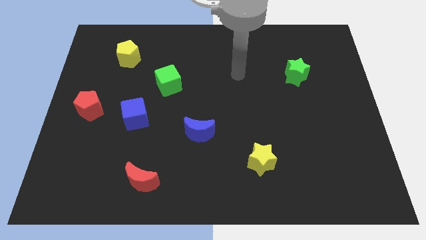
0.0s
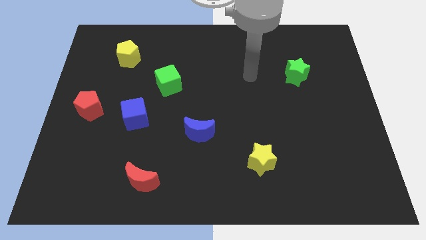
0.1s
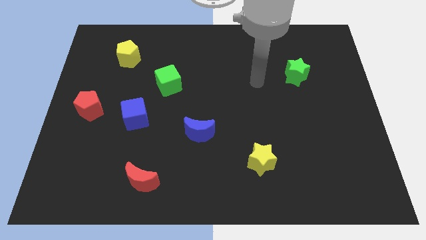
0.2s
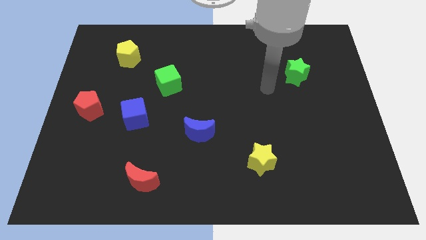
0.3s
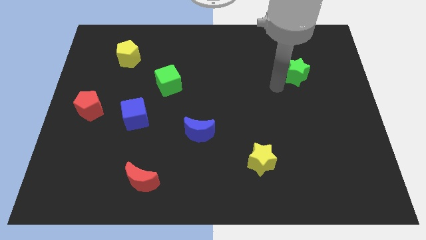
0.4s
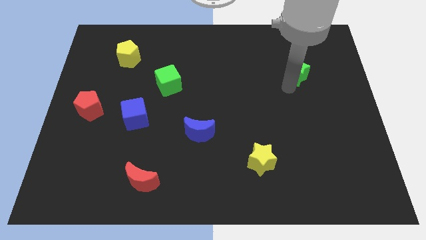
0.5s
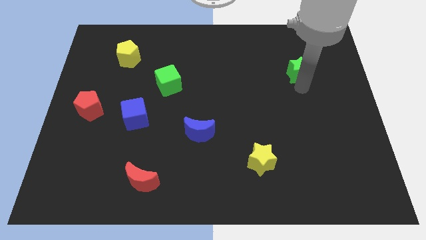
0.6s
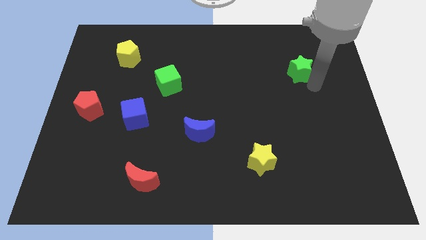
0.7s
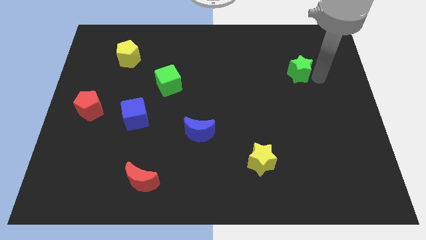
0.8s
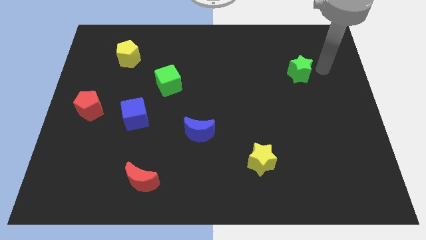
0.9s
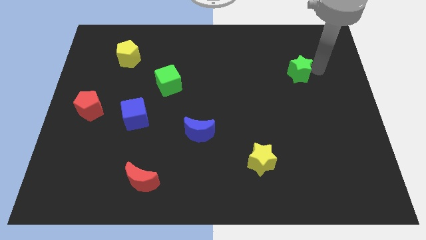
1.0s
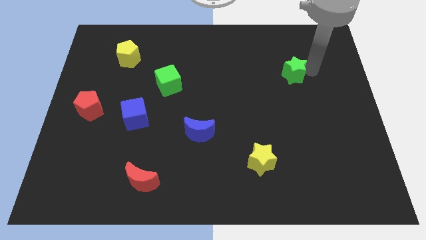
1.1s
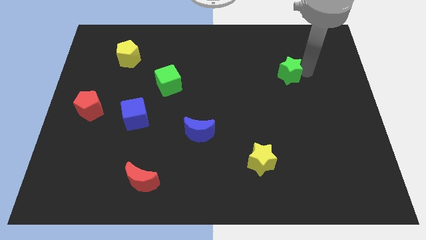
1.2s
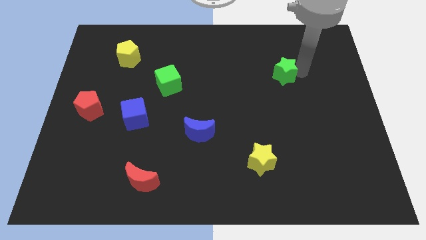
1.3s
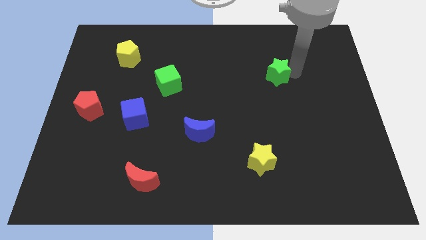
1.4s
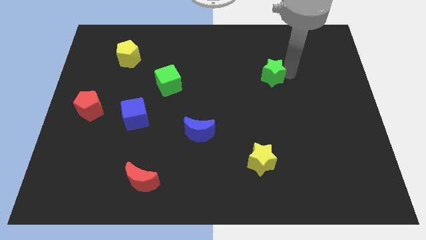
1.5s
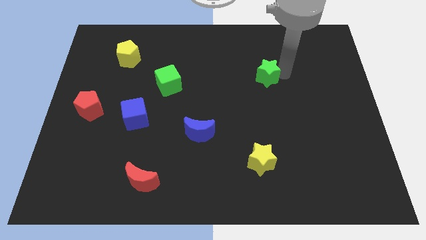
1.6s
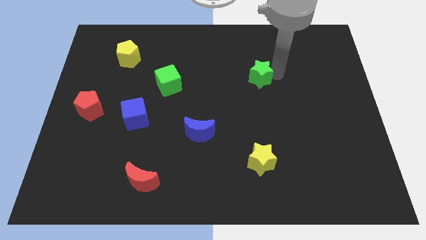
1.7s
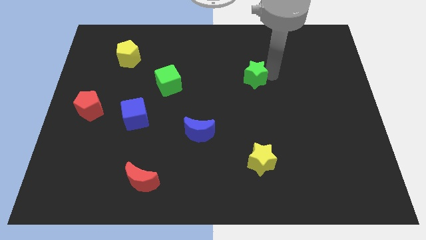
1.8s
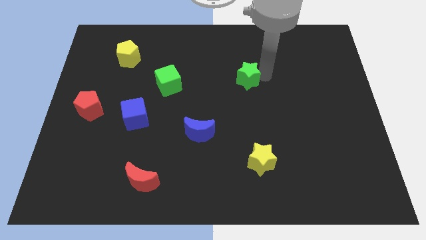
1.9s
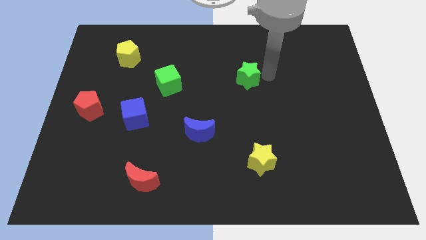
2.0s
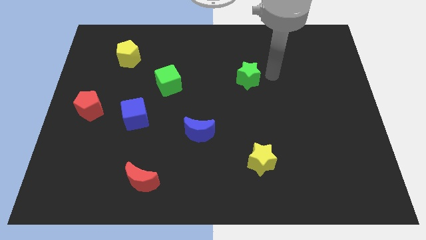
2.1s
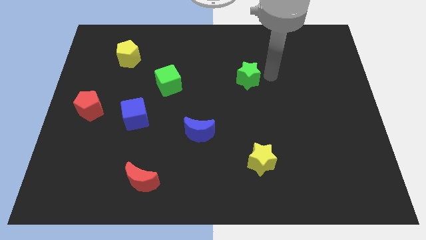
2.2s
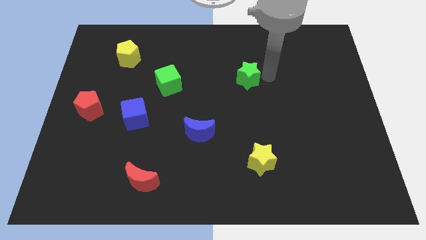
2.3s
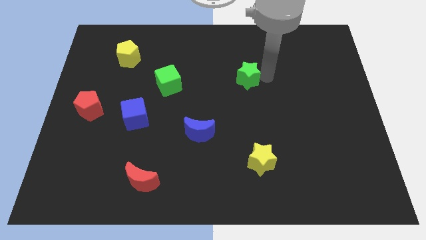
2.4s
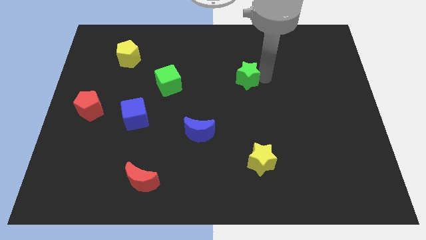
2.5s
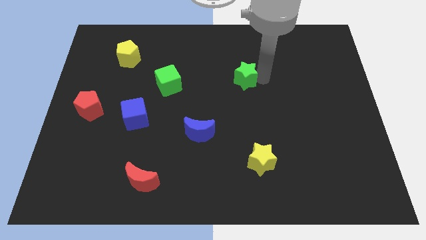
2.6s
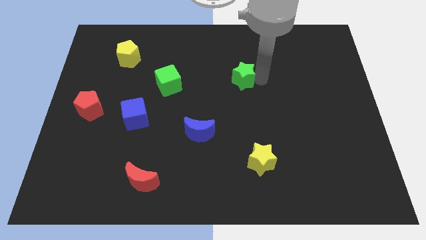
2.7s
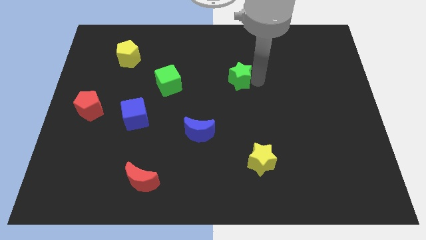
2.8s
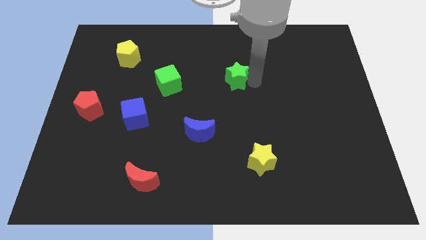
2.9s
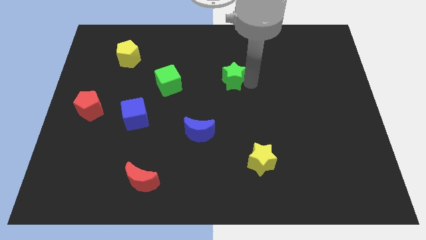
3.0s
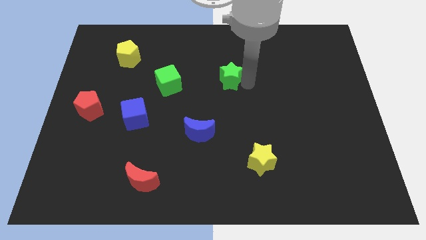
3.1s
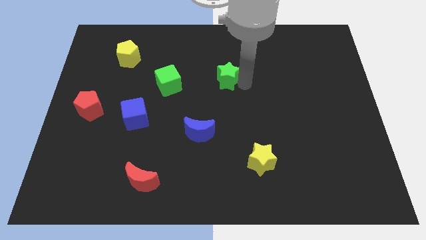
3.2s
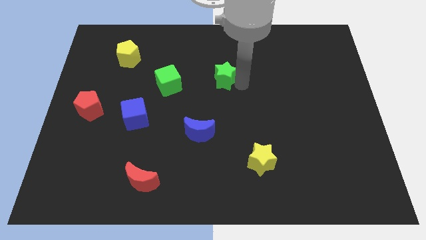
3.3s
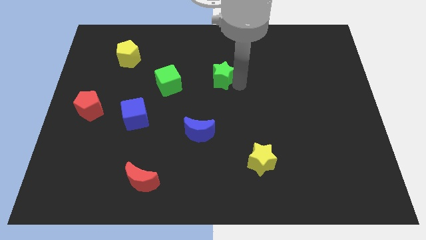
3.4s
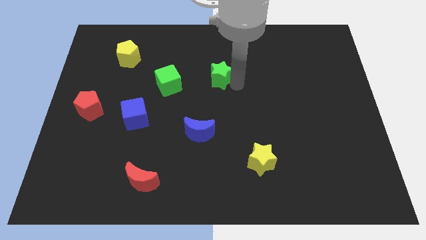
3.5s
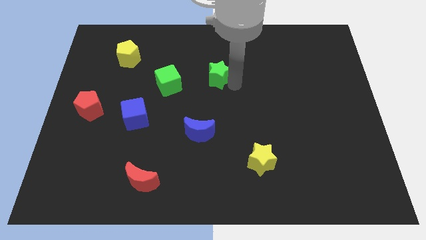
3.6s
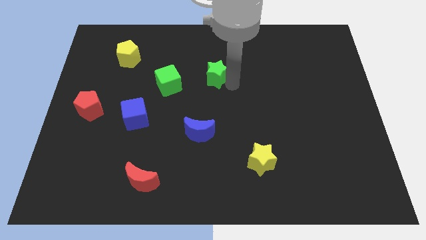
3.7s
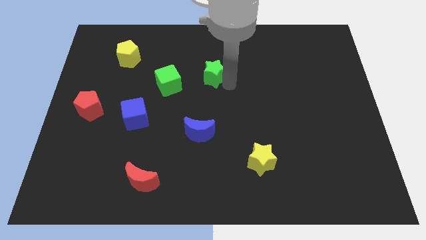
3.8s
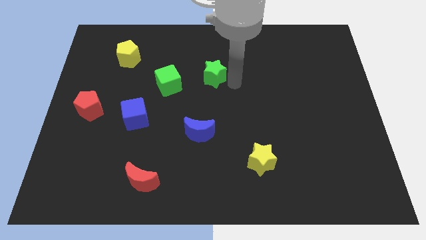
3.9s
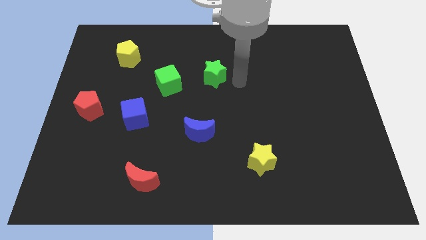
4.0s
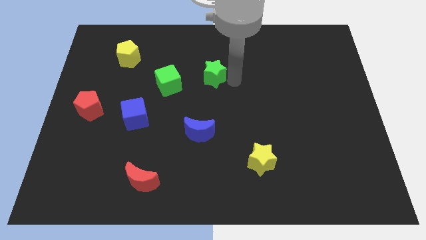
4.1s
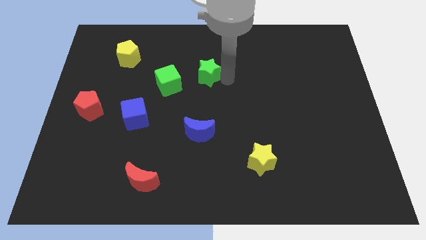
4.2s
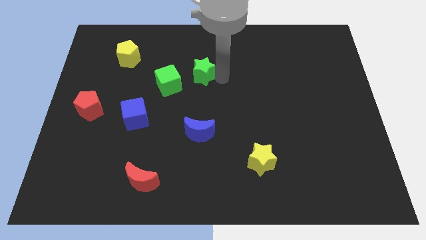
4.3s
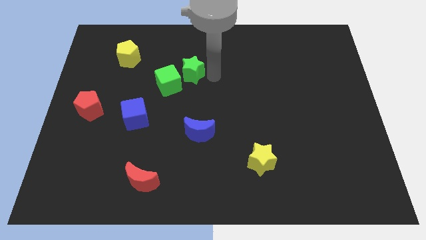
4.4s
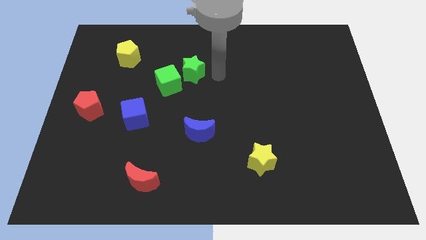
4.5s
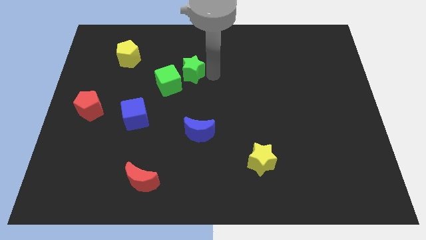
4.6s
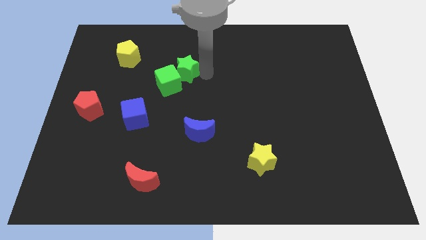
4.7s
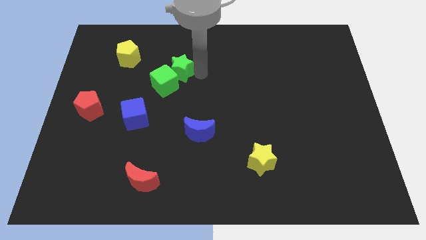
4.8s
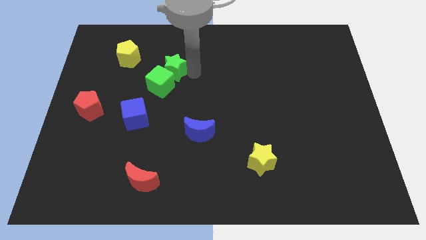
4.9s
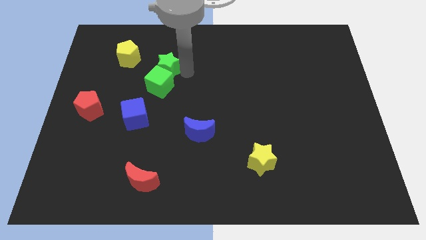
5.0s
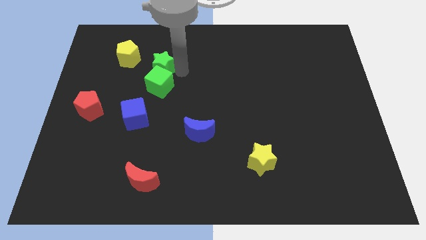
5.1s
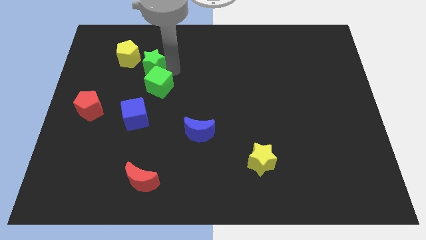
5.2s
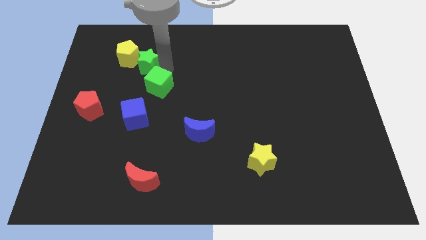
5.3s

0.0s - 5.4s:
put the green star close to the yellow pentagon

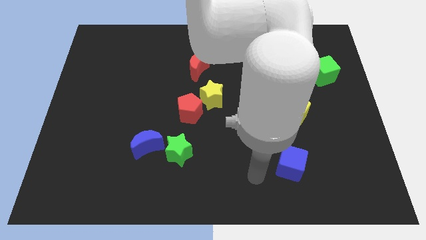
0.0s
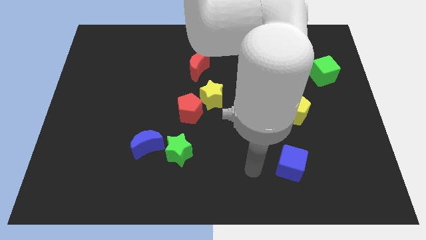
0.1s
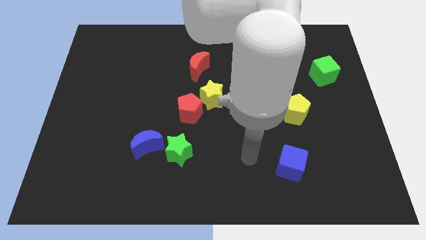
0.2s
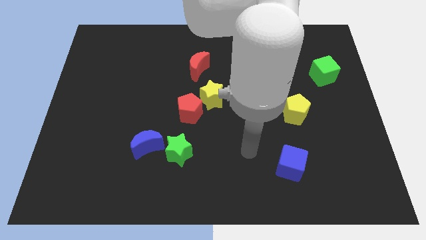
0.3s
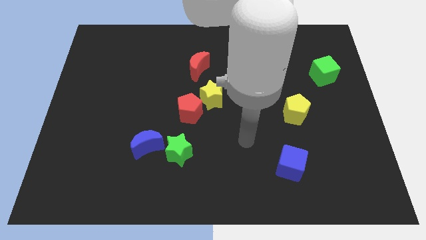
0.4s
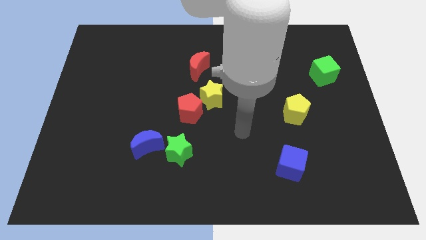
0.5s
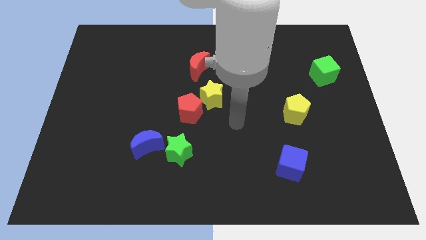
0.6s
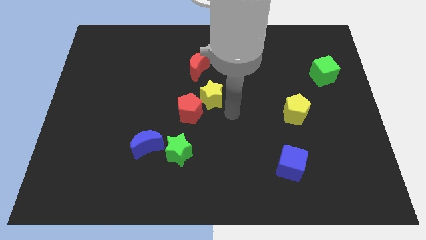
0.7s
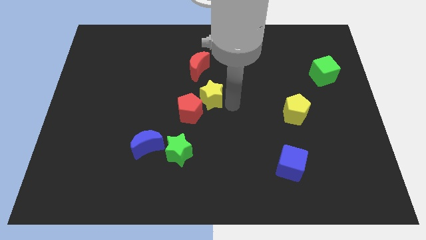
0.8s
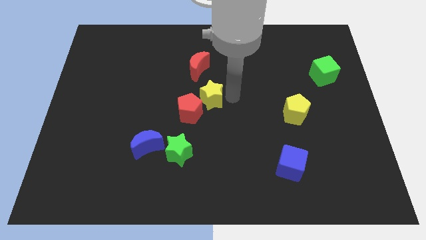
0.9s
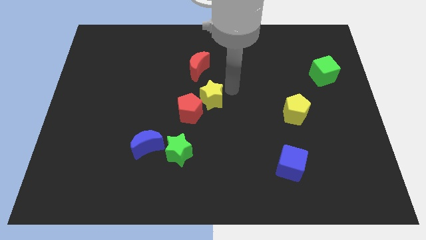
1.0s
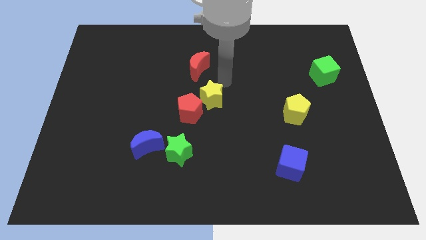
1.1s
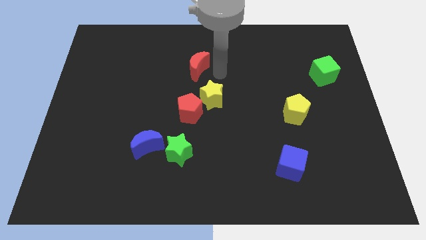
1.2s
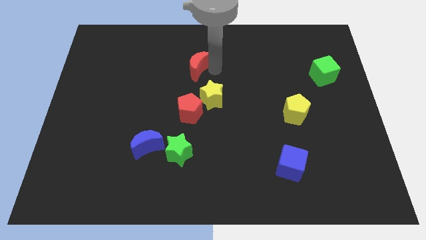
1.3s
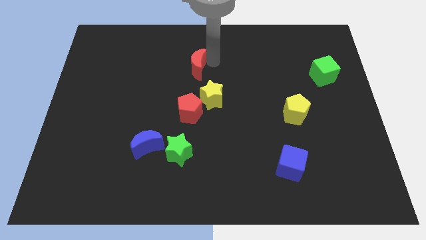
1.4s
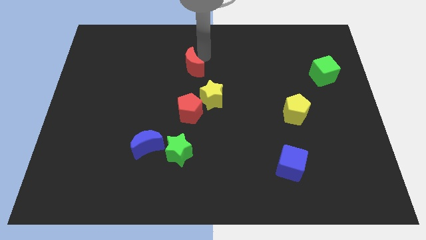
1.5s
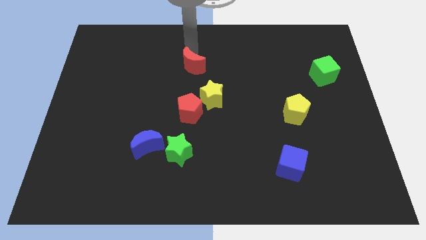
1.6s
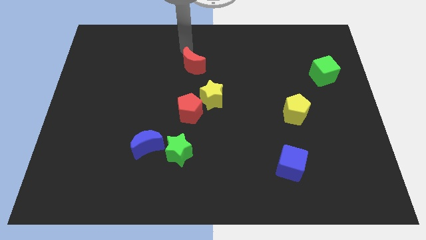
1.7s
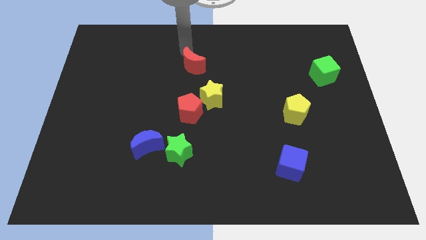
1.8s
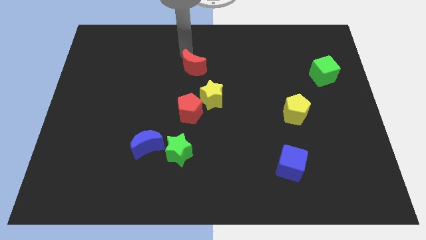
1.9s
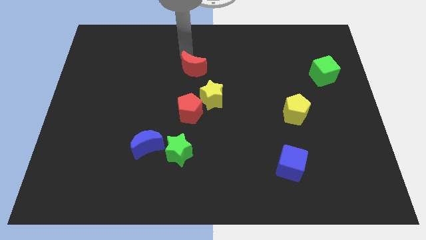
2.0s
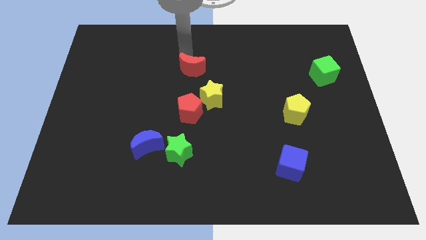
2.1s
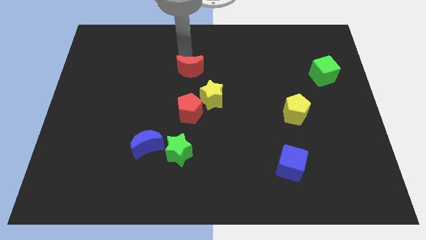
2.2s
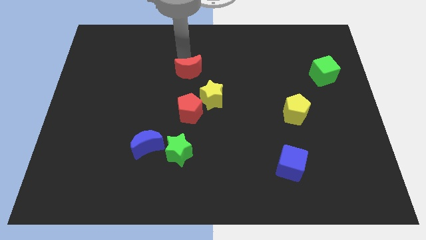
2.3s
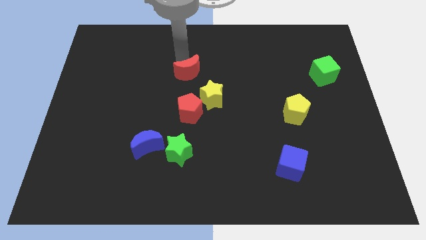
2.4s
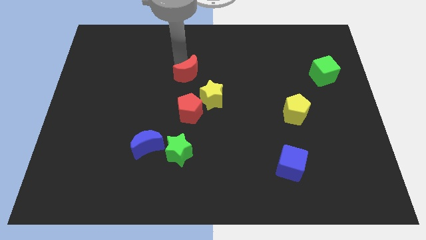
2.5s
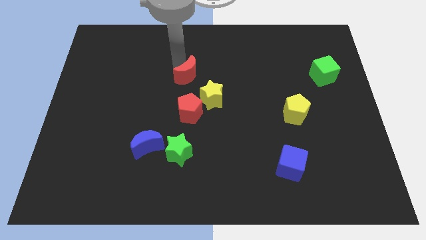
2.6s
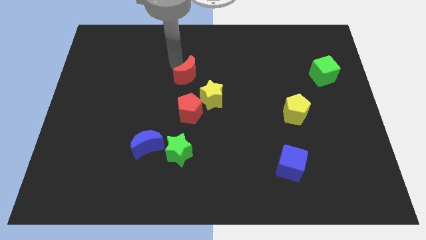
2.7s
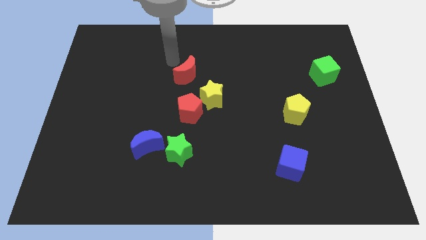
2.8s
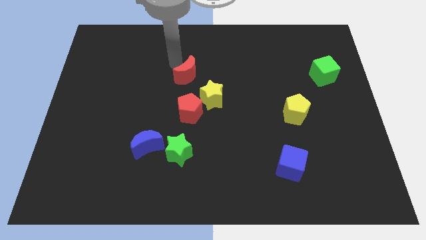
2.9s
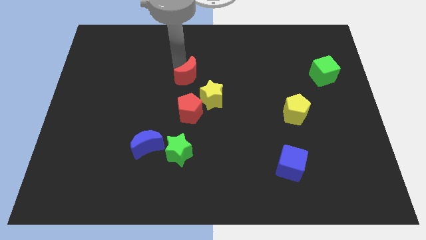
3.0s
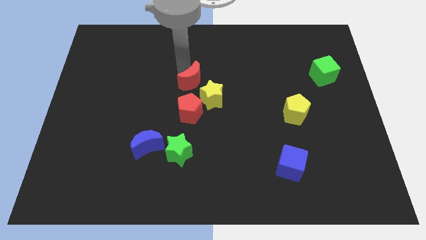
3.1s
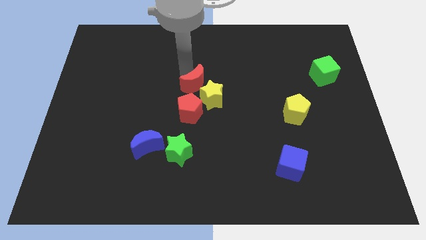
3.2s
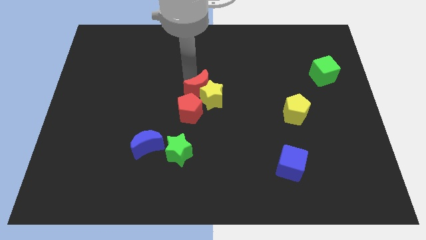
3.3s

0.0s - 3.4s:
move the red moon close to the yellow star
